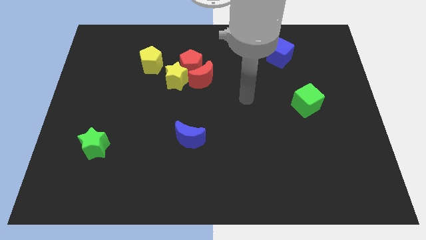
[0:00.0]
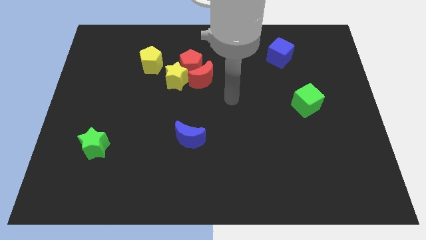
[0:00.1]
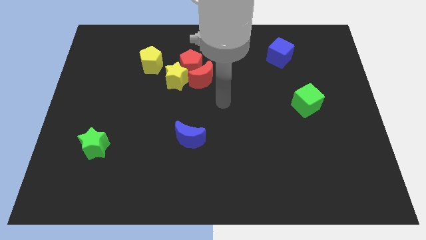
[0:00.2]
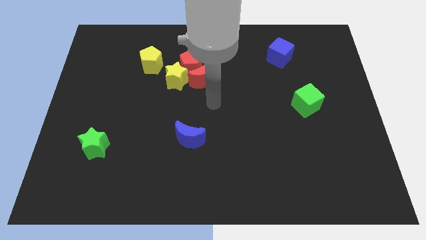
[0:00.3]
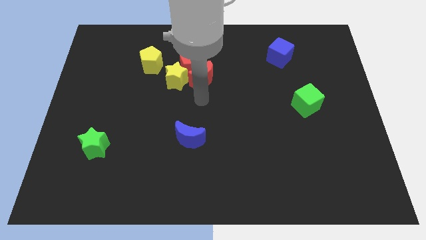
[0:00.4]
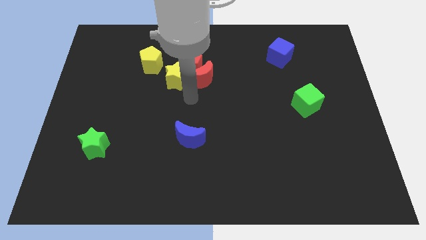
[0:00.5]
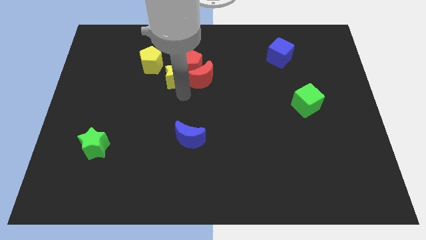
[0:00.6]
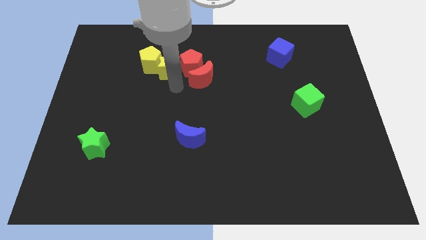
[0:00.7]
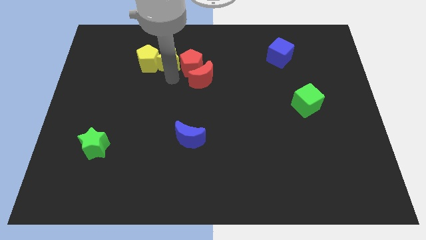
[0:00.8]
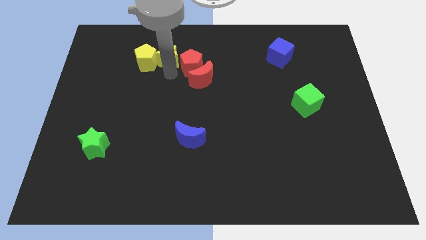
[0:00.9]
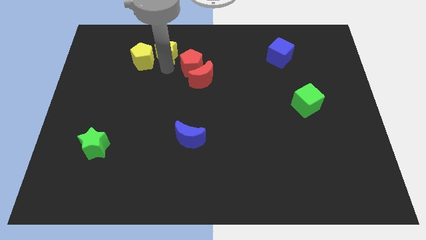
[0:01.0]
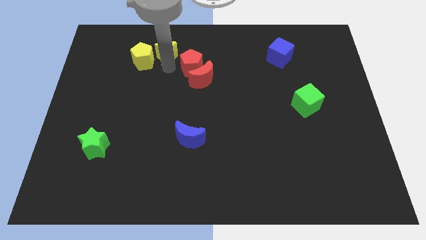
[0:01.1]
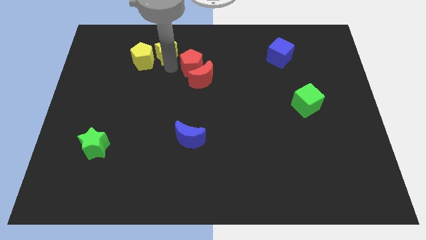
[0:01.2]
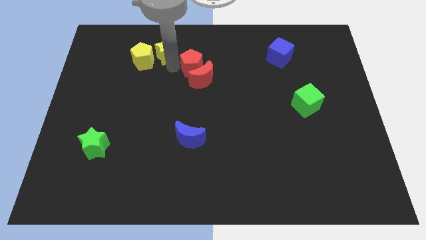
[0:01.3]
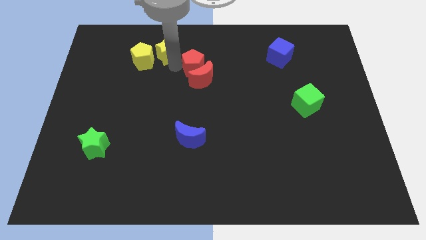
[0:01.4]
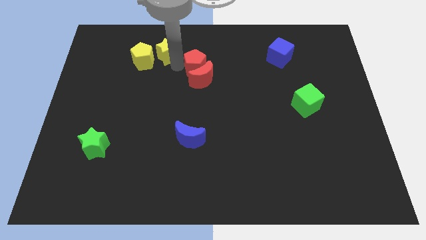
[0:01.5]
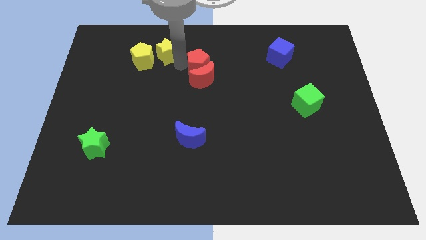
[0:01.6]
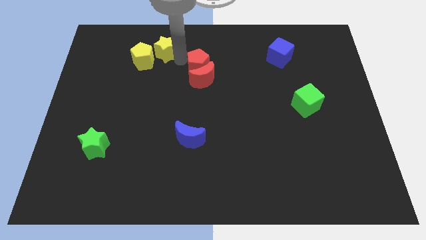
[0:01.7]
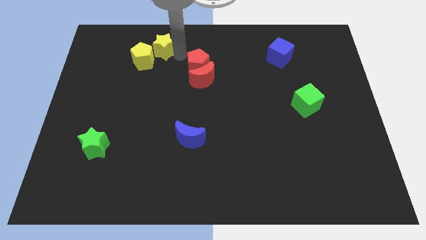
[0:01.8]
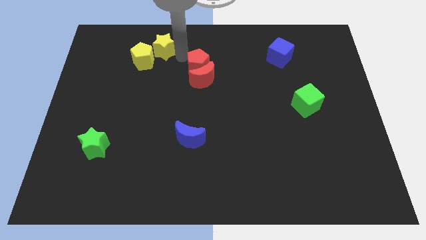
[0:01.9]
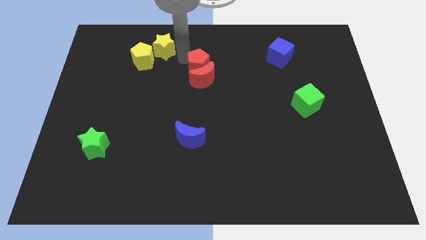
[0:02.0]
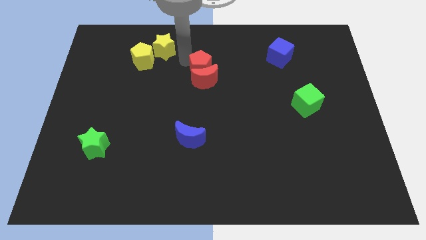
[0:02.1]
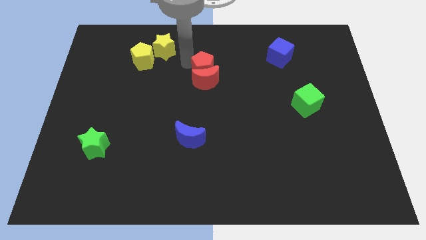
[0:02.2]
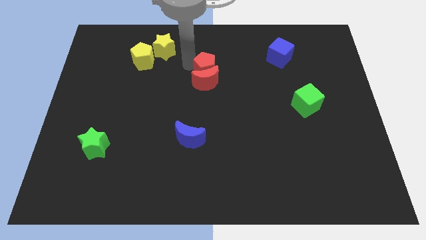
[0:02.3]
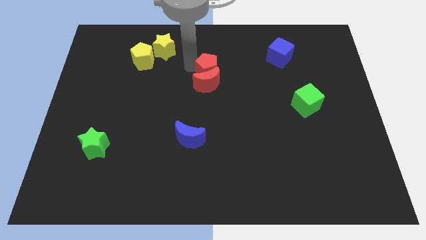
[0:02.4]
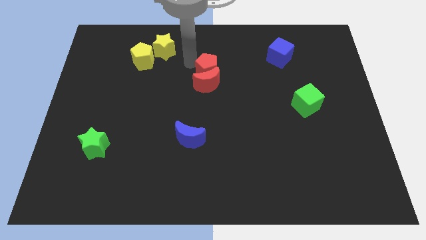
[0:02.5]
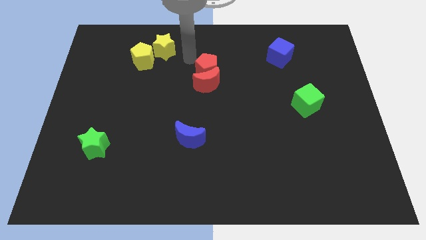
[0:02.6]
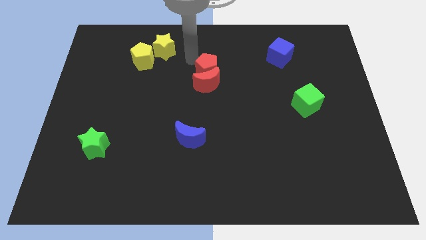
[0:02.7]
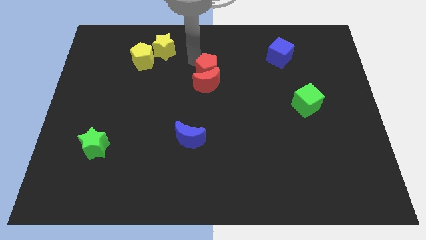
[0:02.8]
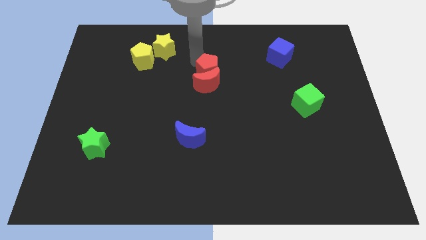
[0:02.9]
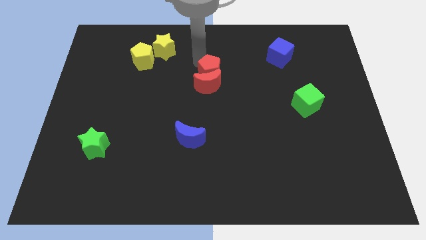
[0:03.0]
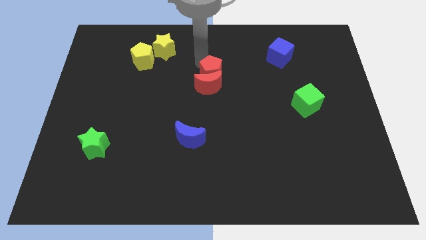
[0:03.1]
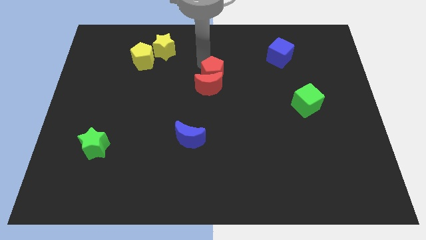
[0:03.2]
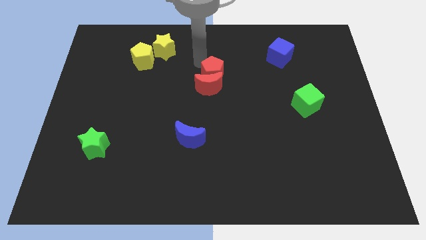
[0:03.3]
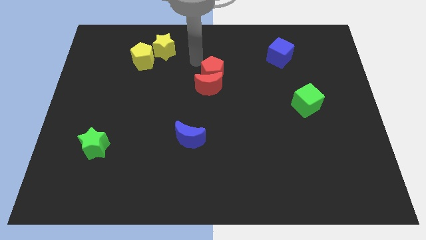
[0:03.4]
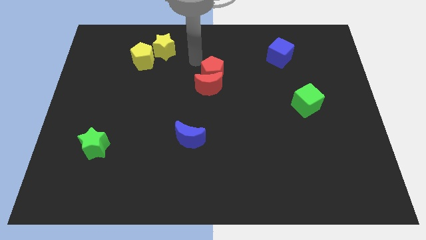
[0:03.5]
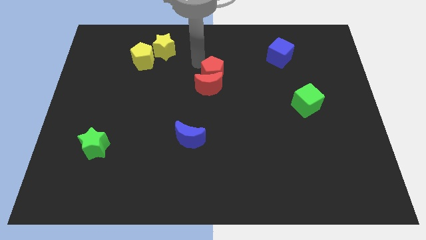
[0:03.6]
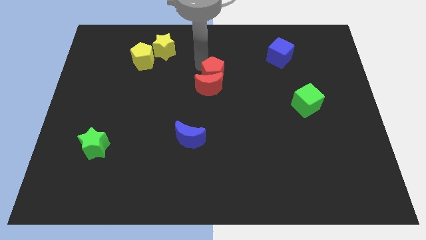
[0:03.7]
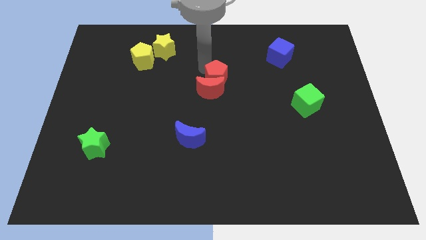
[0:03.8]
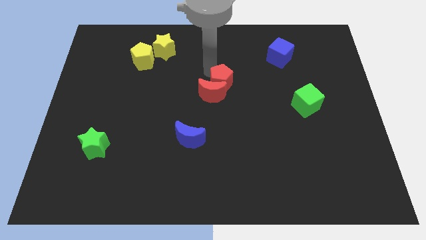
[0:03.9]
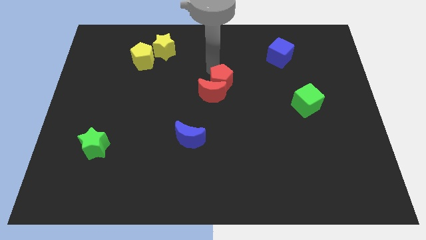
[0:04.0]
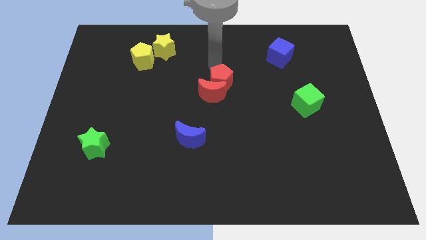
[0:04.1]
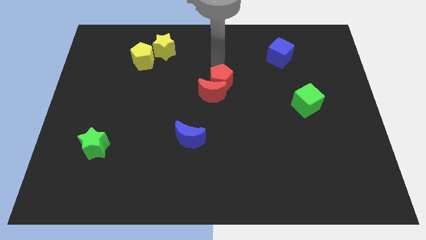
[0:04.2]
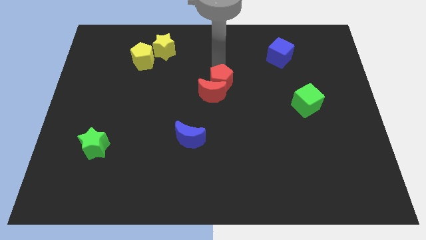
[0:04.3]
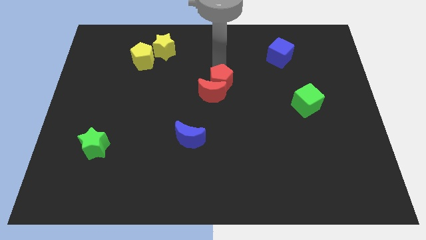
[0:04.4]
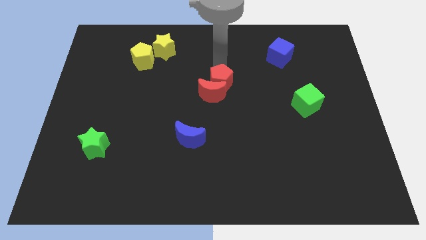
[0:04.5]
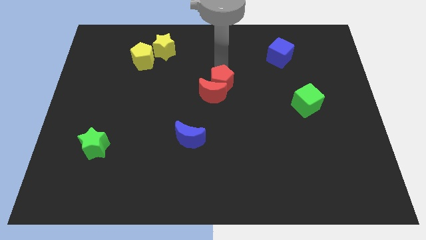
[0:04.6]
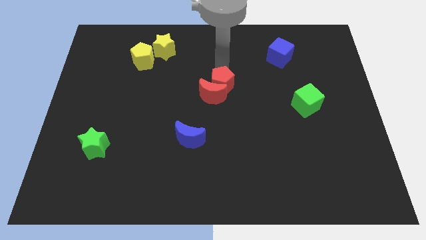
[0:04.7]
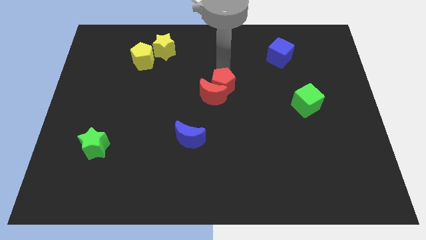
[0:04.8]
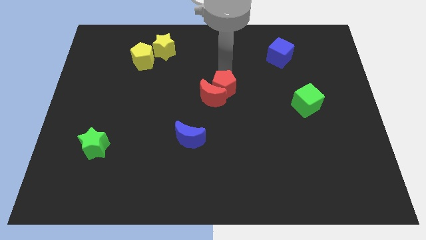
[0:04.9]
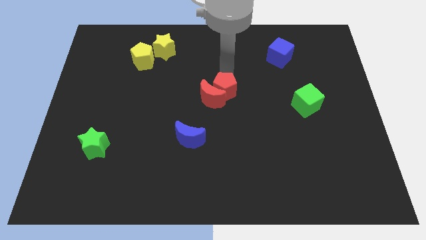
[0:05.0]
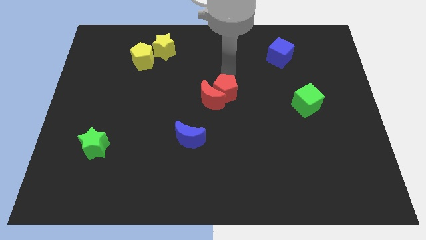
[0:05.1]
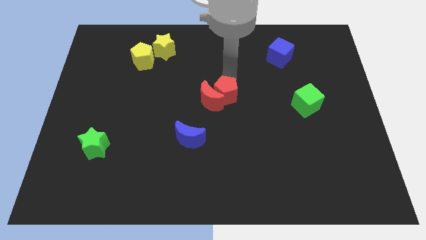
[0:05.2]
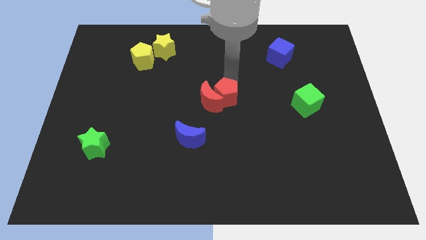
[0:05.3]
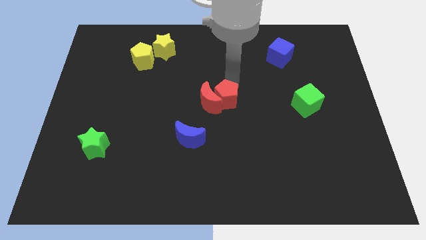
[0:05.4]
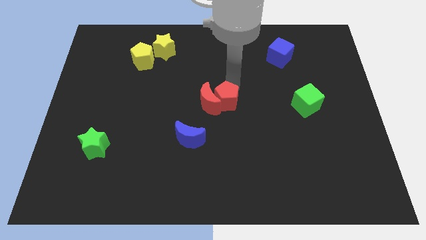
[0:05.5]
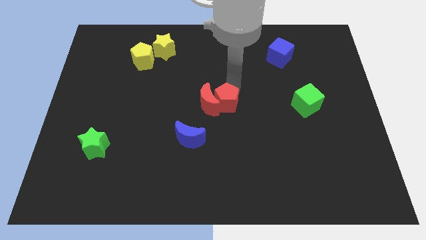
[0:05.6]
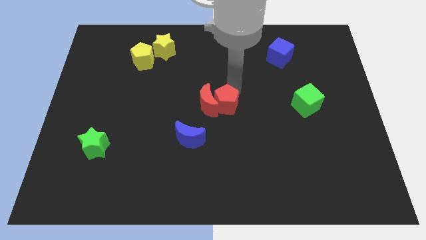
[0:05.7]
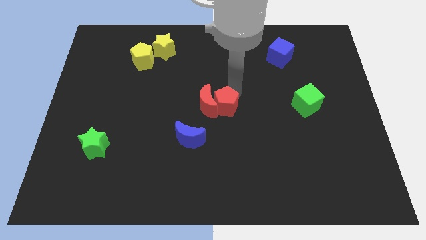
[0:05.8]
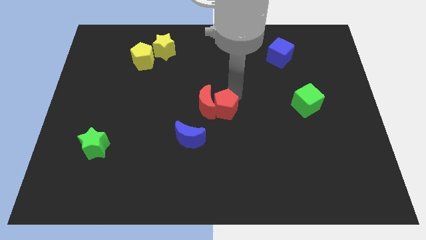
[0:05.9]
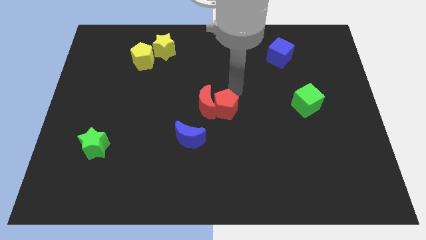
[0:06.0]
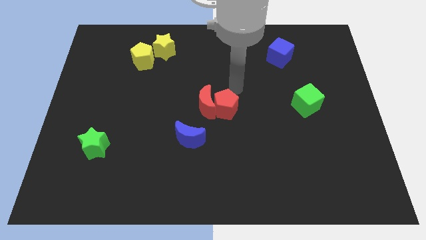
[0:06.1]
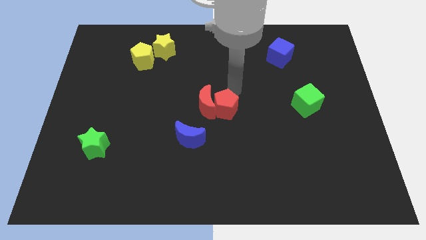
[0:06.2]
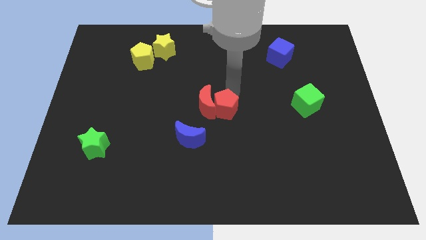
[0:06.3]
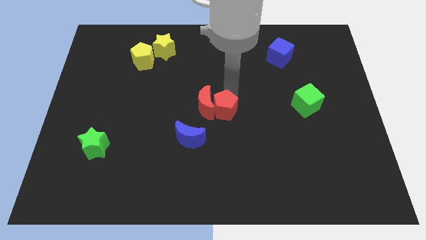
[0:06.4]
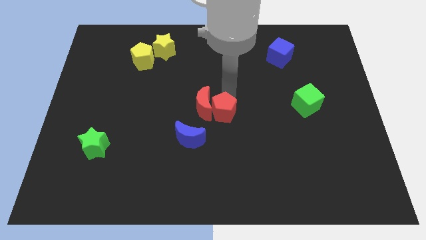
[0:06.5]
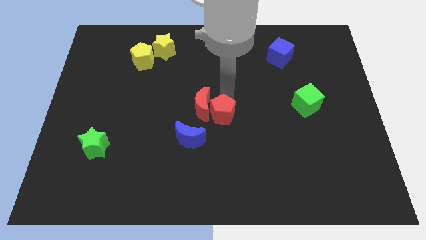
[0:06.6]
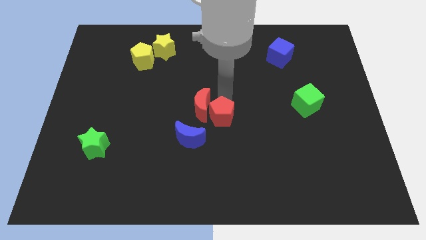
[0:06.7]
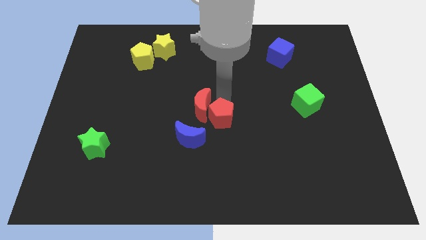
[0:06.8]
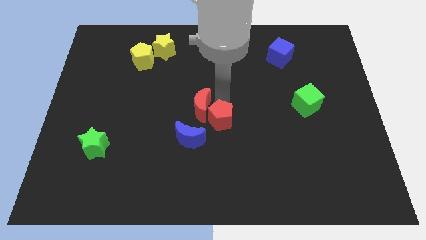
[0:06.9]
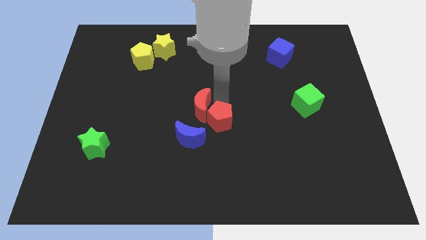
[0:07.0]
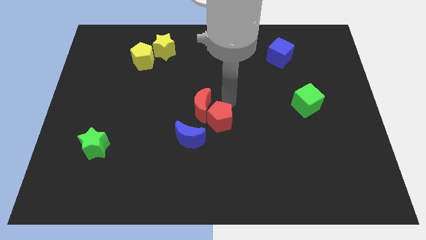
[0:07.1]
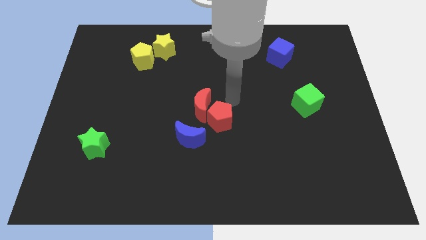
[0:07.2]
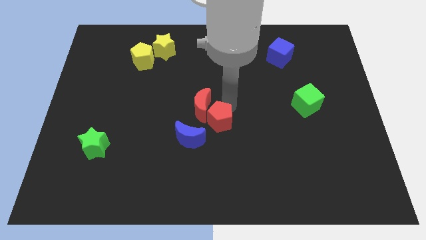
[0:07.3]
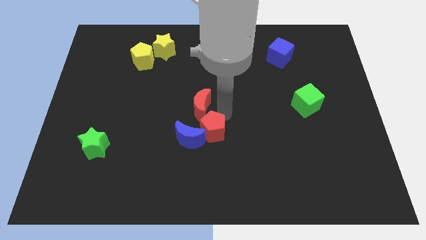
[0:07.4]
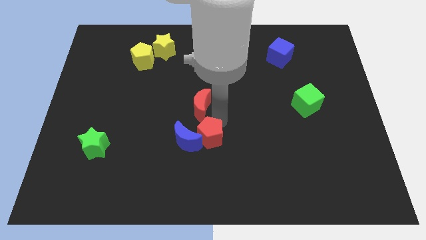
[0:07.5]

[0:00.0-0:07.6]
push the red pentagon down

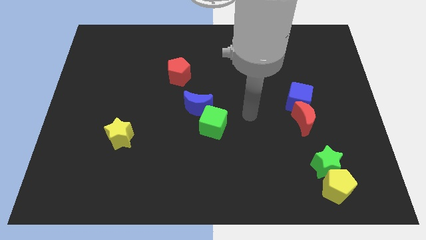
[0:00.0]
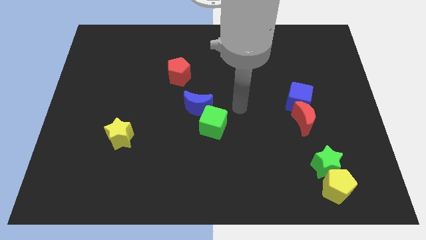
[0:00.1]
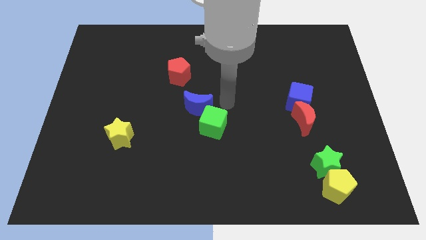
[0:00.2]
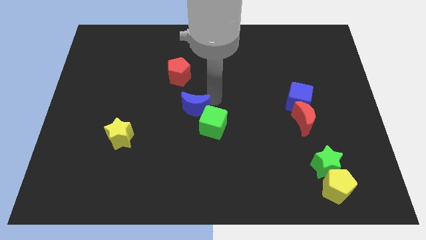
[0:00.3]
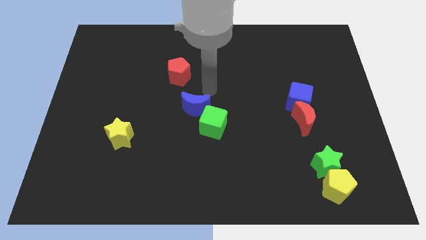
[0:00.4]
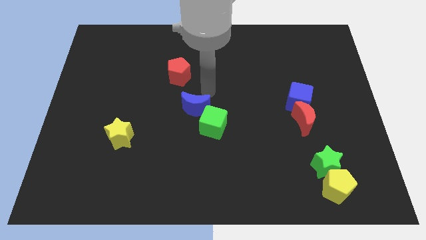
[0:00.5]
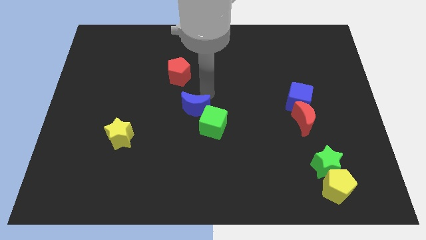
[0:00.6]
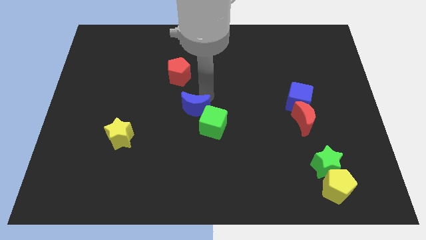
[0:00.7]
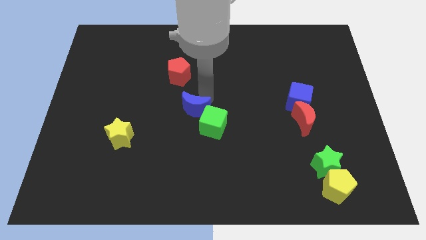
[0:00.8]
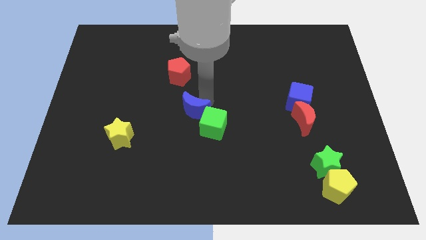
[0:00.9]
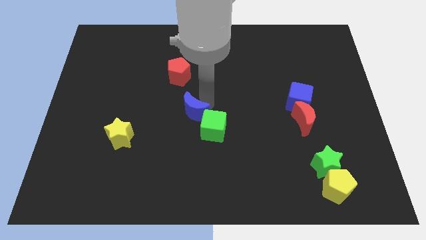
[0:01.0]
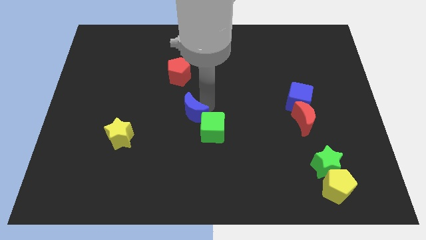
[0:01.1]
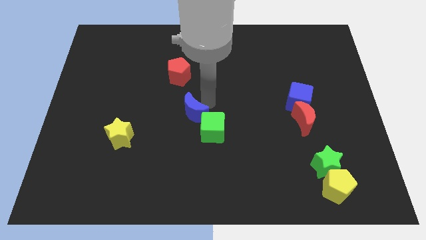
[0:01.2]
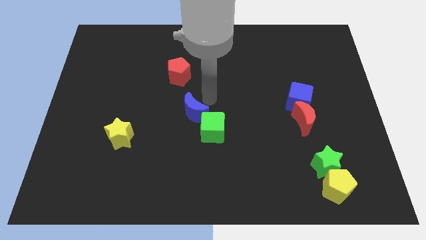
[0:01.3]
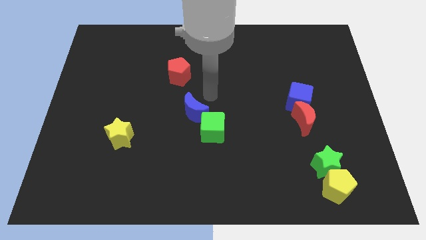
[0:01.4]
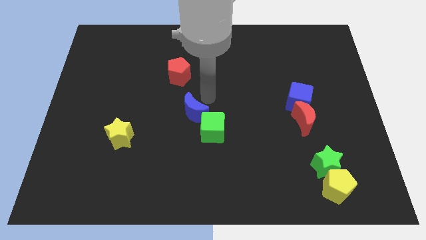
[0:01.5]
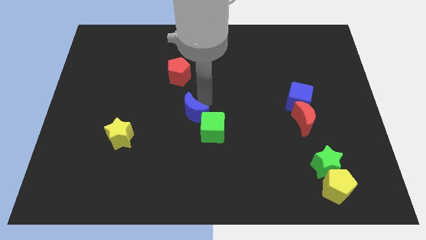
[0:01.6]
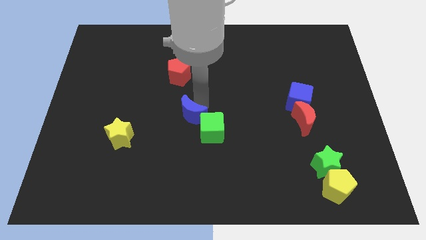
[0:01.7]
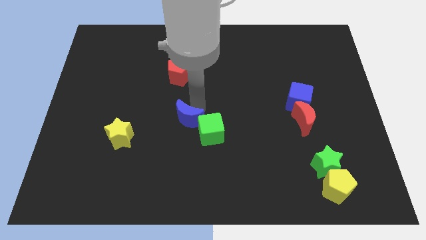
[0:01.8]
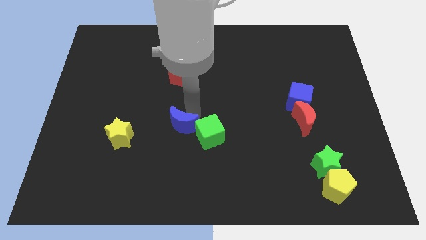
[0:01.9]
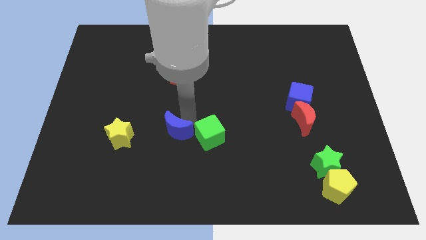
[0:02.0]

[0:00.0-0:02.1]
slide the blue moon down and then left a little
